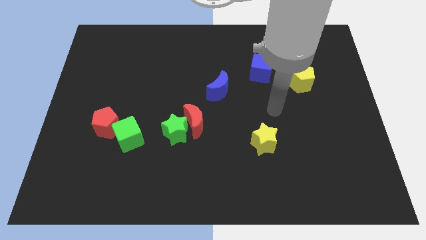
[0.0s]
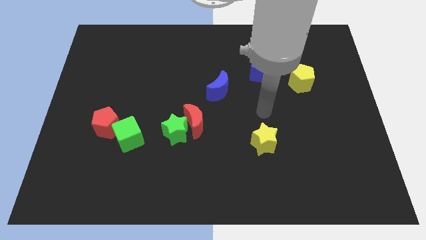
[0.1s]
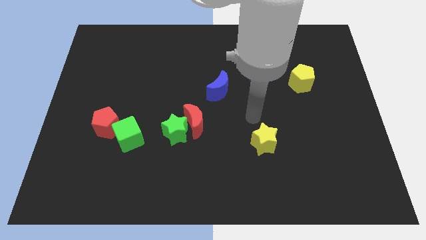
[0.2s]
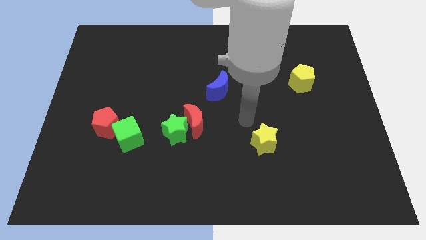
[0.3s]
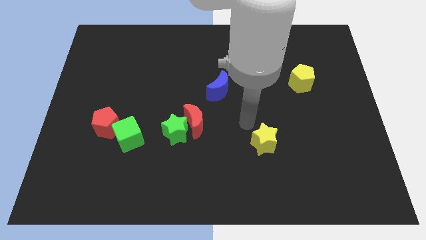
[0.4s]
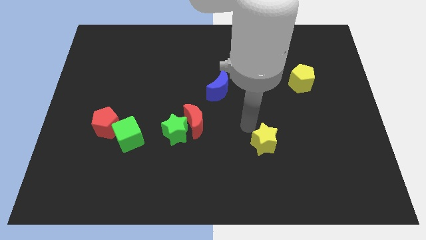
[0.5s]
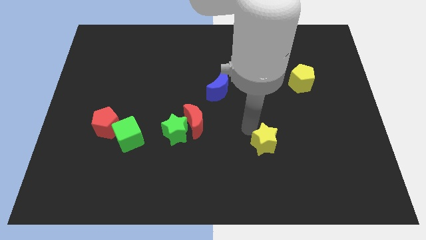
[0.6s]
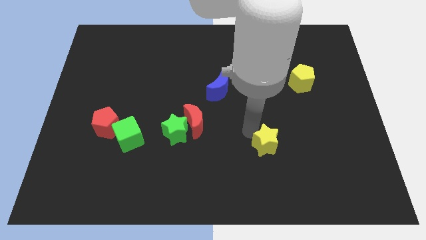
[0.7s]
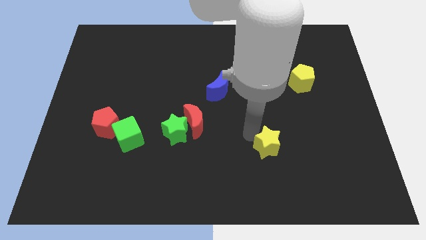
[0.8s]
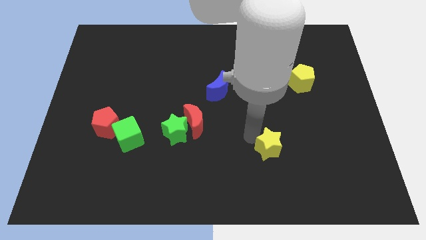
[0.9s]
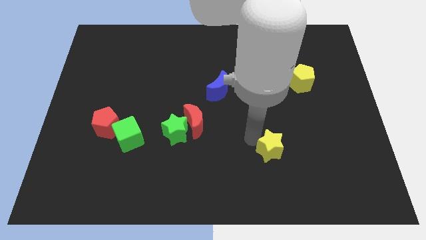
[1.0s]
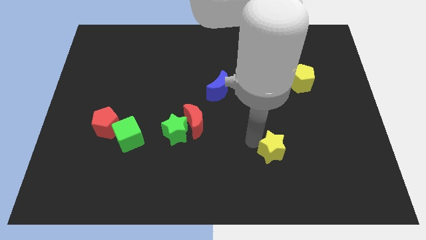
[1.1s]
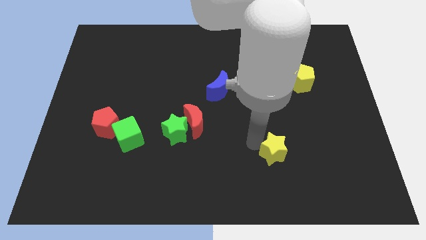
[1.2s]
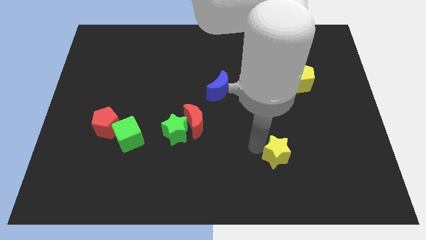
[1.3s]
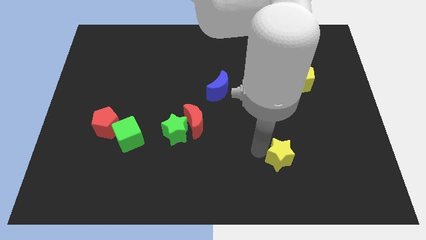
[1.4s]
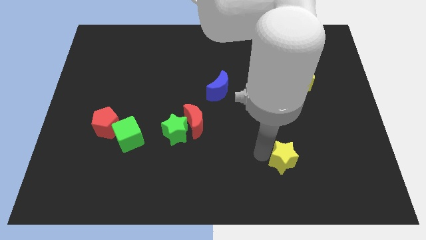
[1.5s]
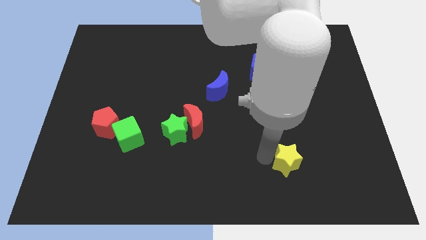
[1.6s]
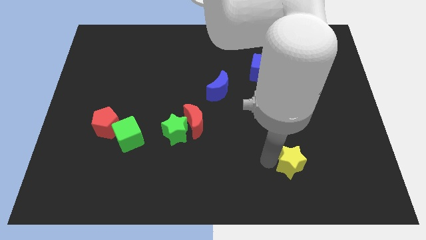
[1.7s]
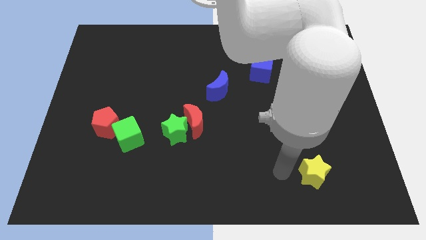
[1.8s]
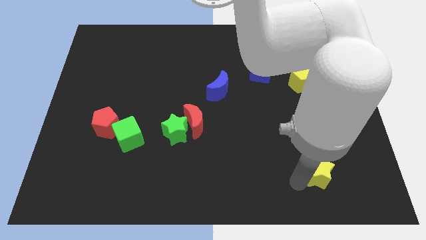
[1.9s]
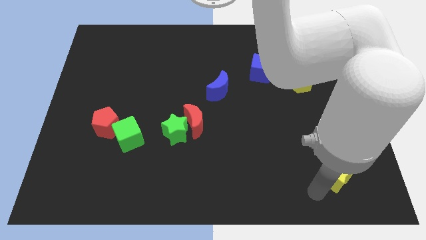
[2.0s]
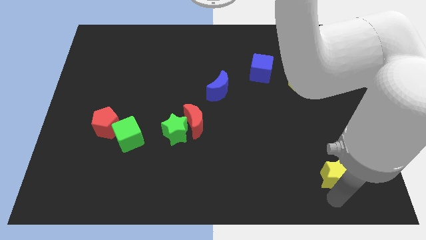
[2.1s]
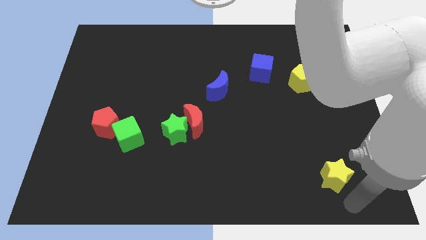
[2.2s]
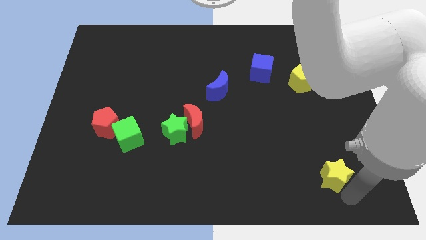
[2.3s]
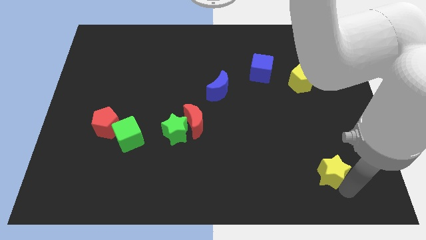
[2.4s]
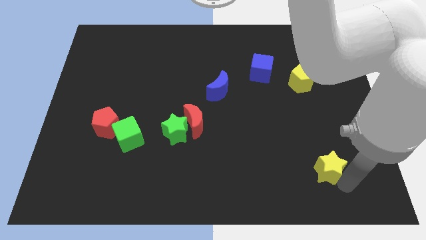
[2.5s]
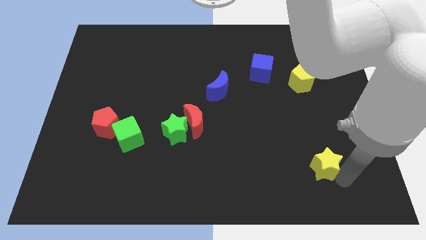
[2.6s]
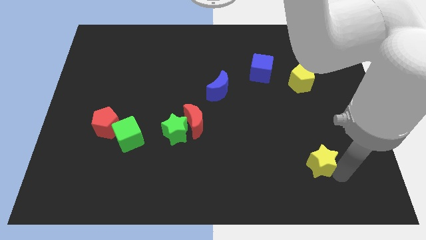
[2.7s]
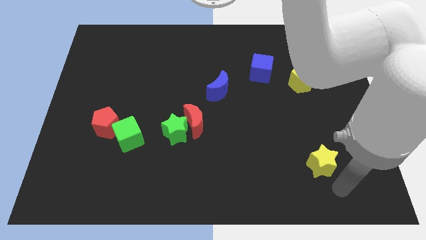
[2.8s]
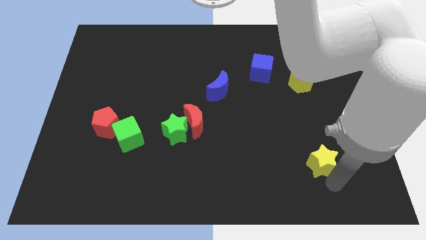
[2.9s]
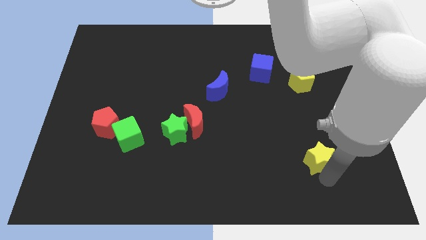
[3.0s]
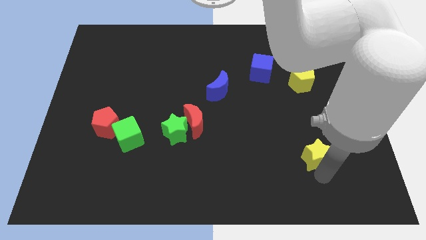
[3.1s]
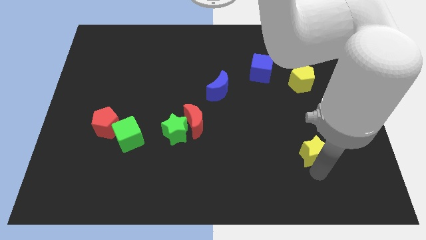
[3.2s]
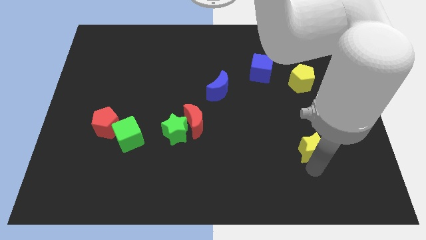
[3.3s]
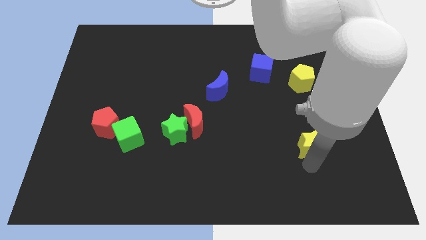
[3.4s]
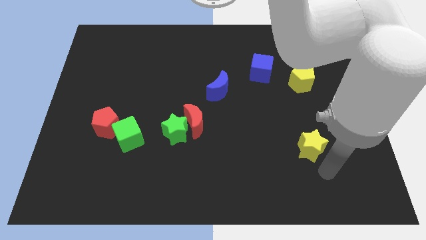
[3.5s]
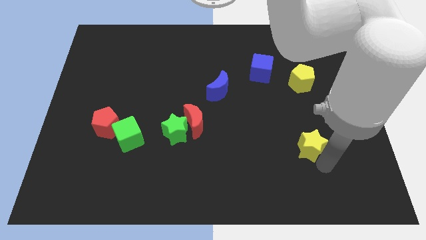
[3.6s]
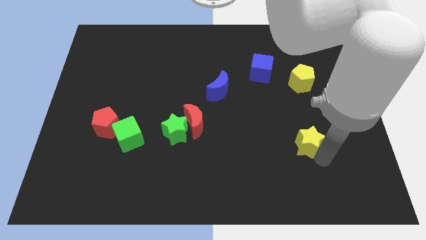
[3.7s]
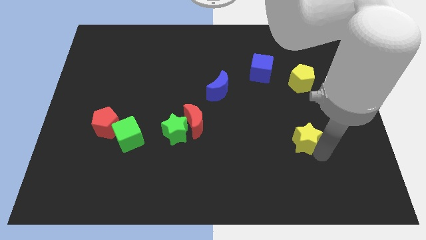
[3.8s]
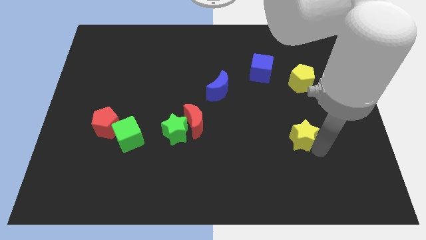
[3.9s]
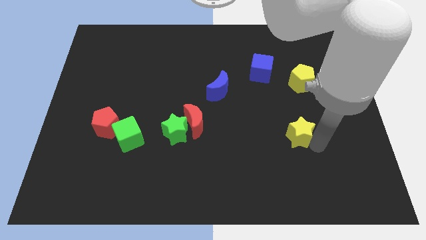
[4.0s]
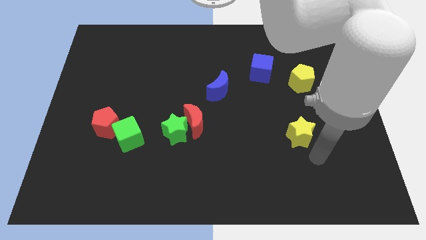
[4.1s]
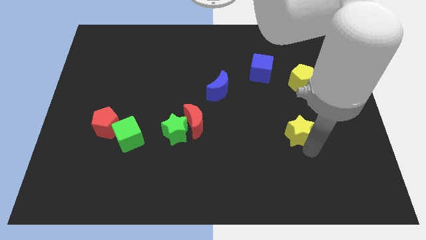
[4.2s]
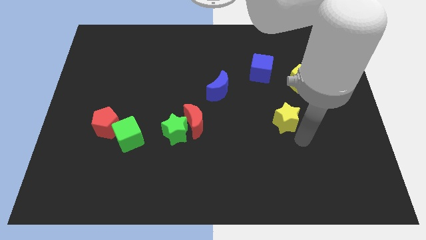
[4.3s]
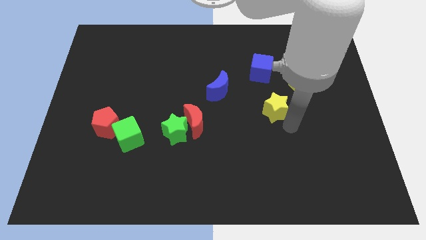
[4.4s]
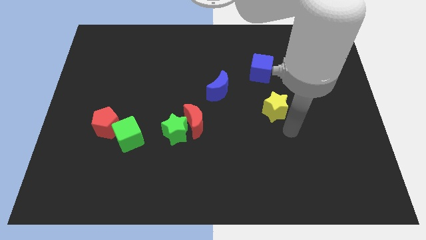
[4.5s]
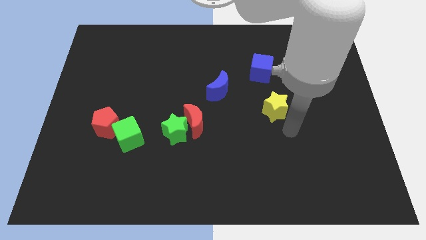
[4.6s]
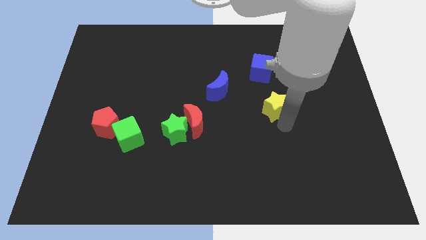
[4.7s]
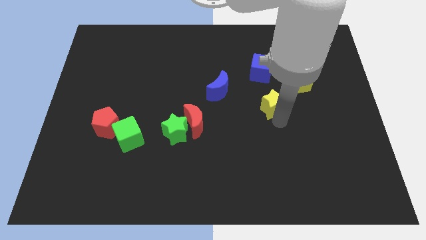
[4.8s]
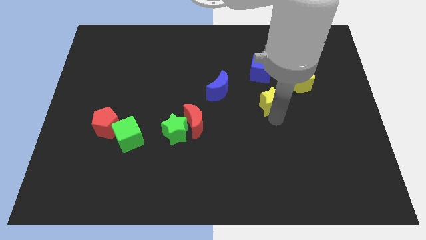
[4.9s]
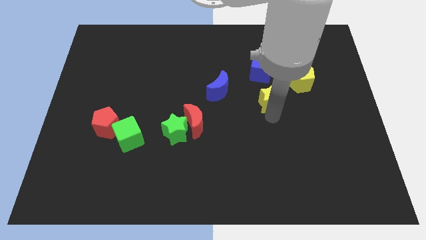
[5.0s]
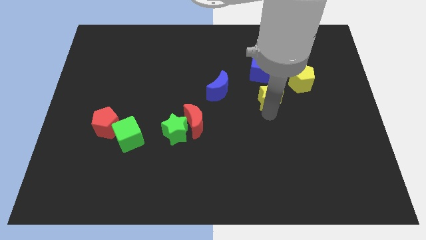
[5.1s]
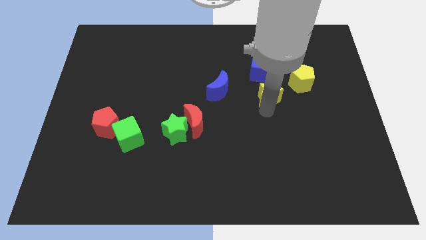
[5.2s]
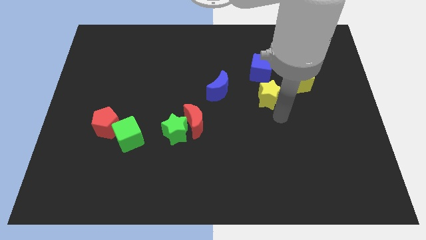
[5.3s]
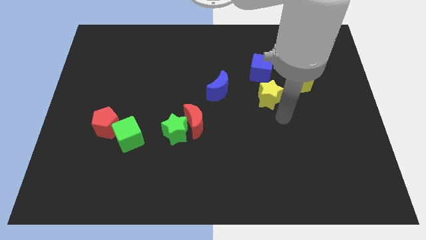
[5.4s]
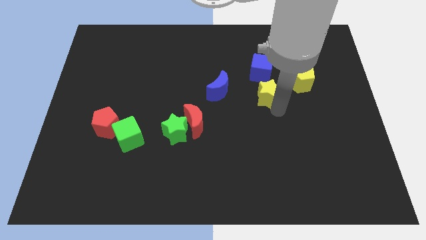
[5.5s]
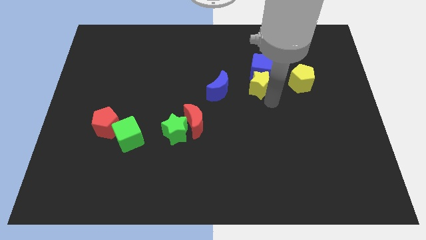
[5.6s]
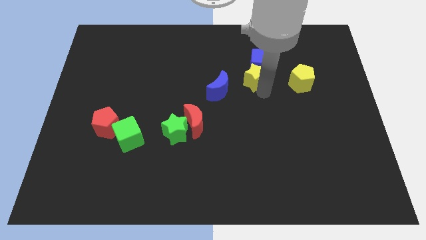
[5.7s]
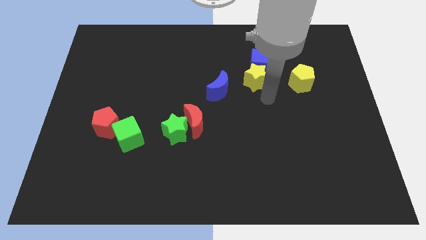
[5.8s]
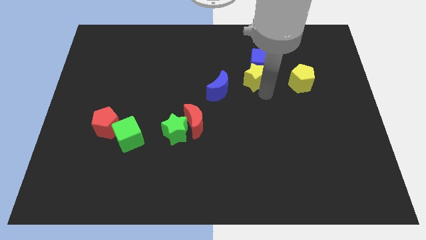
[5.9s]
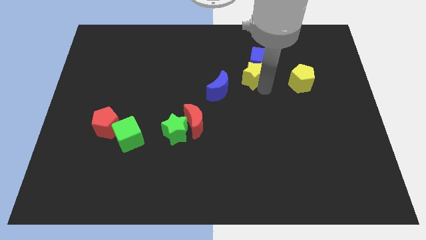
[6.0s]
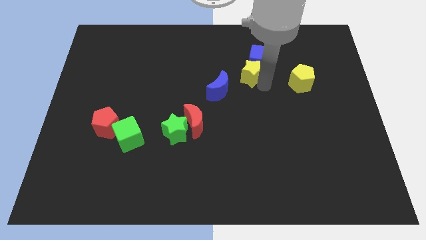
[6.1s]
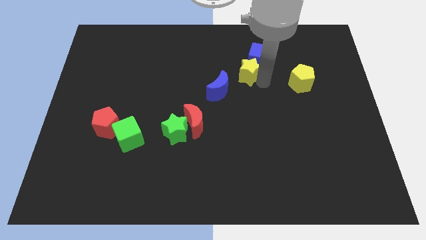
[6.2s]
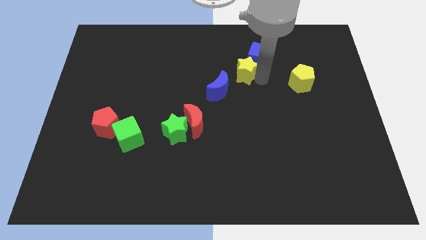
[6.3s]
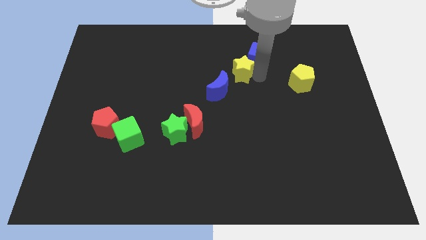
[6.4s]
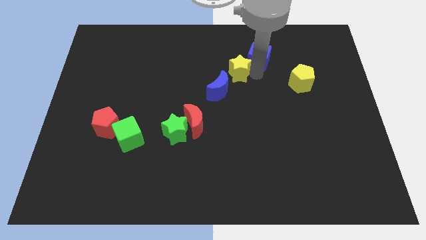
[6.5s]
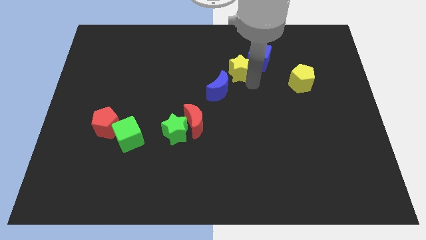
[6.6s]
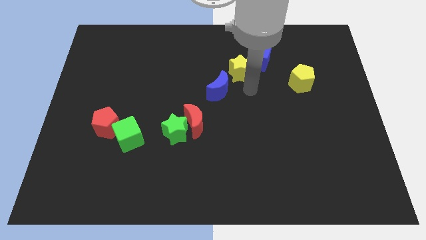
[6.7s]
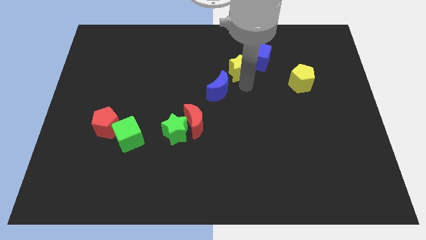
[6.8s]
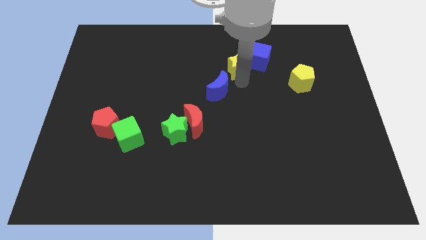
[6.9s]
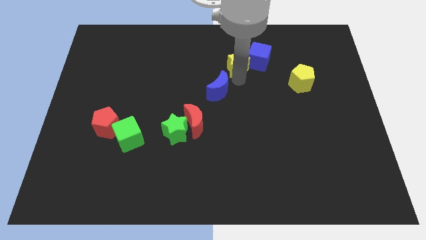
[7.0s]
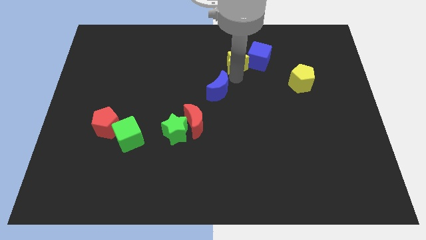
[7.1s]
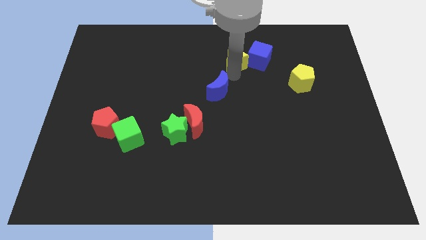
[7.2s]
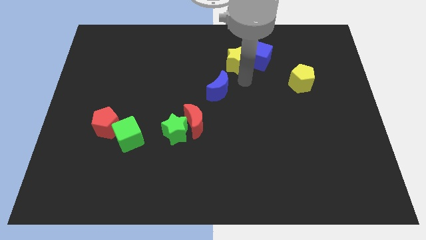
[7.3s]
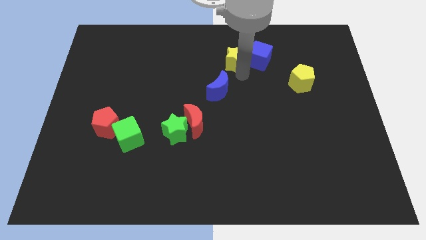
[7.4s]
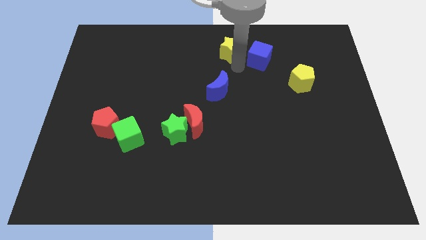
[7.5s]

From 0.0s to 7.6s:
move the yellow star to the top
